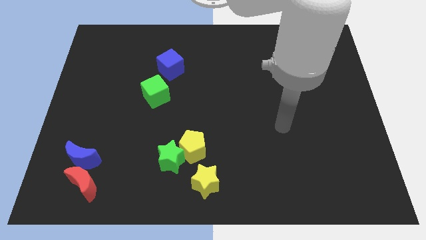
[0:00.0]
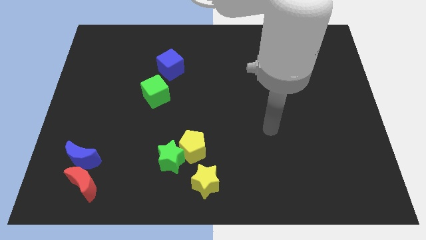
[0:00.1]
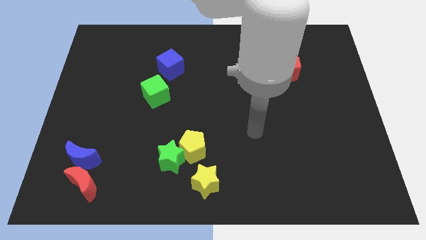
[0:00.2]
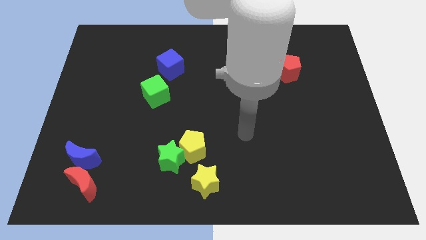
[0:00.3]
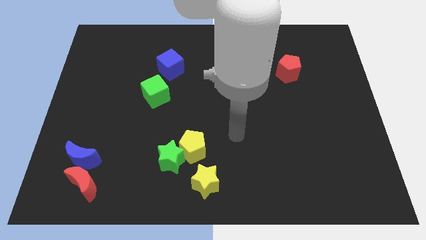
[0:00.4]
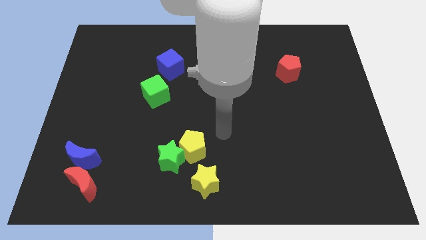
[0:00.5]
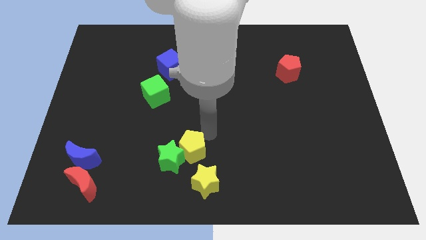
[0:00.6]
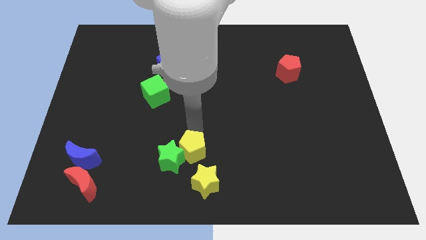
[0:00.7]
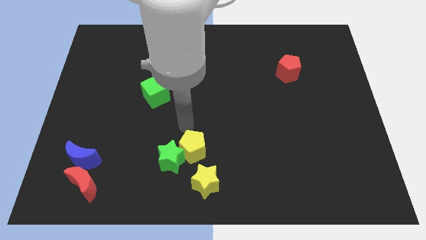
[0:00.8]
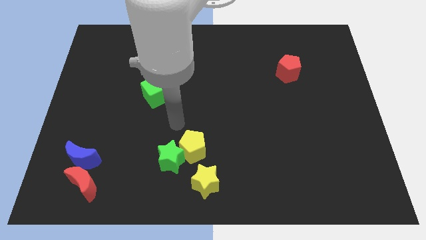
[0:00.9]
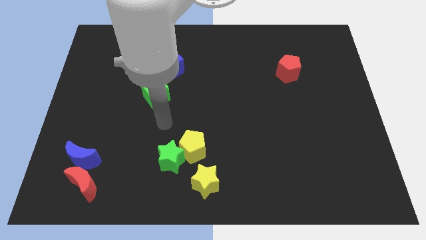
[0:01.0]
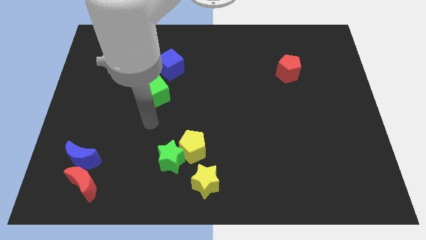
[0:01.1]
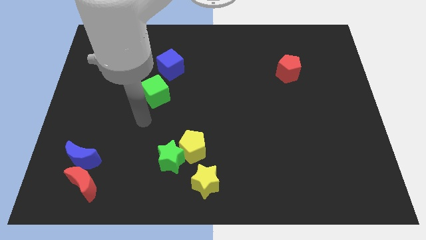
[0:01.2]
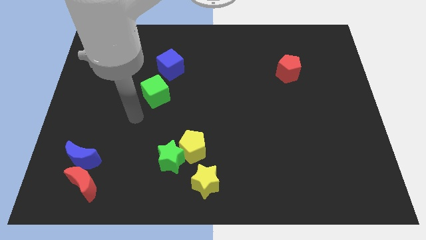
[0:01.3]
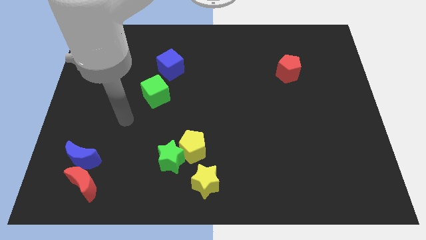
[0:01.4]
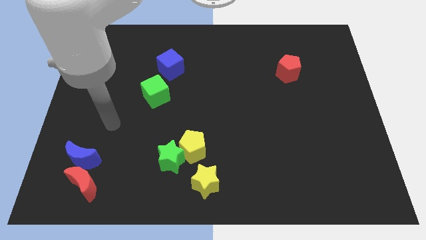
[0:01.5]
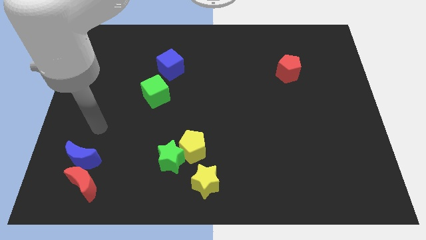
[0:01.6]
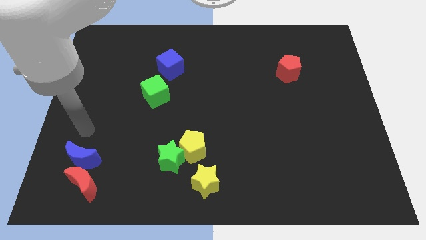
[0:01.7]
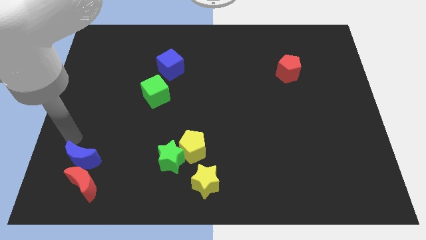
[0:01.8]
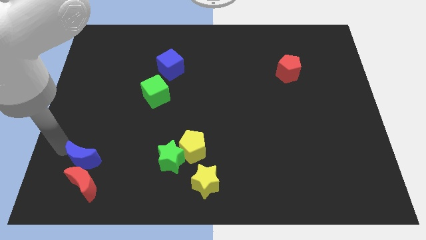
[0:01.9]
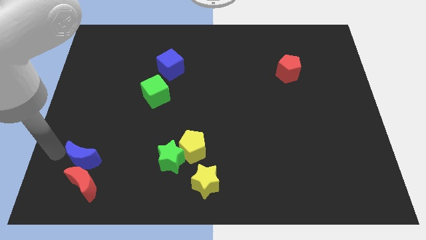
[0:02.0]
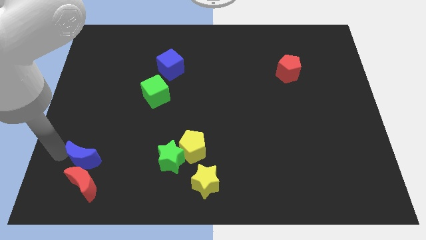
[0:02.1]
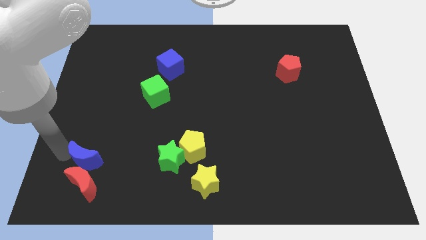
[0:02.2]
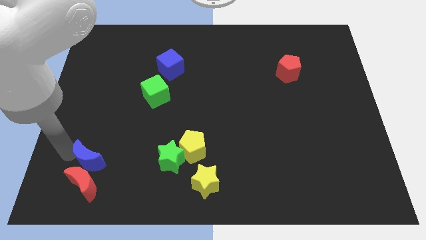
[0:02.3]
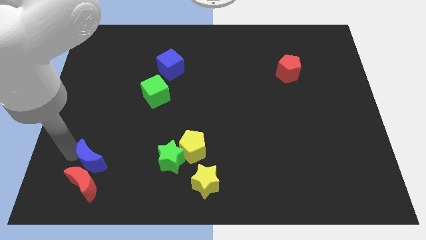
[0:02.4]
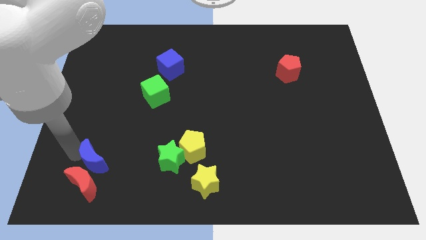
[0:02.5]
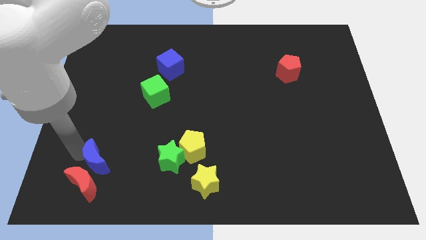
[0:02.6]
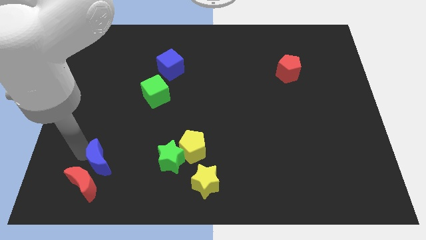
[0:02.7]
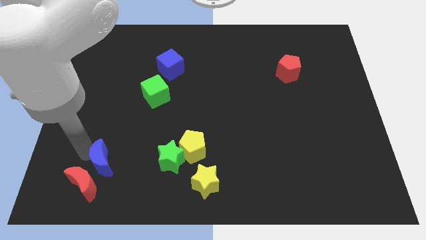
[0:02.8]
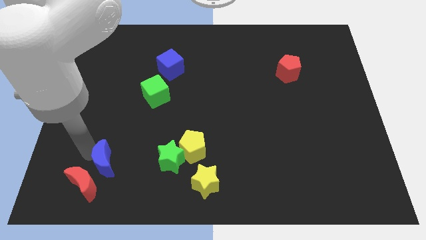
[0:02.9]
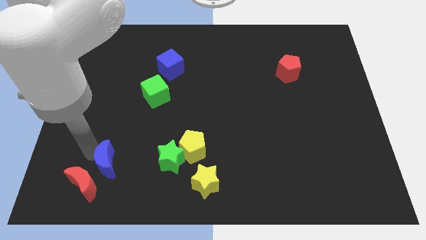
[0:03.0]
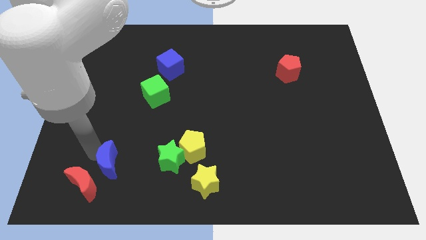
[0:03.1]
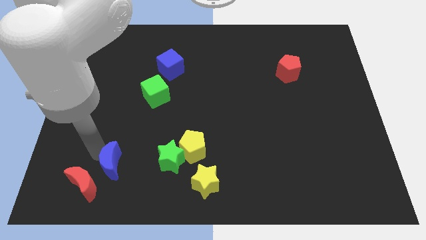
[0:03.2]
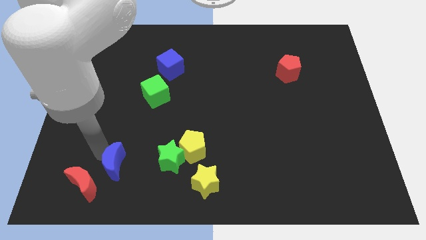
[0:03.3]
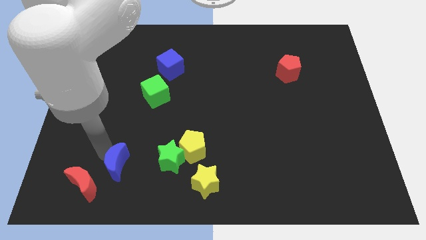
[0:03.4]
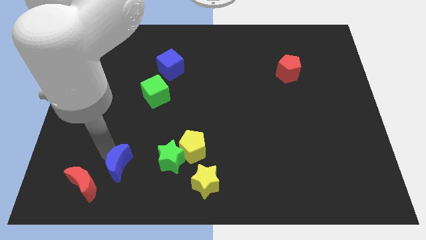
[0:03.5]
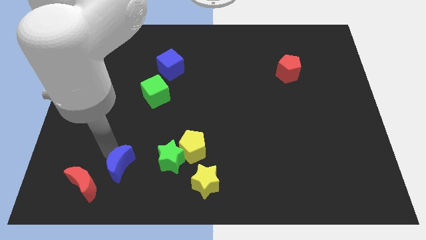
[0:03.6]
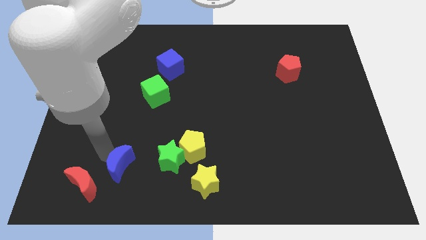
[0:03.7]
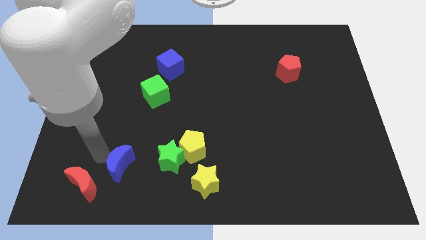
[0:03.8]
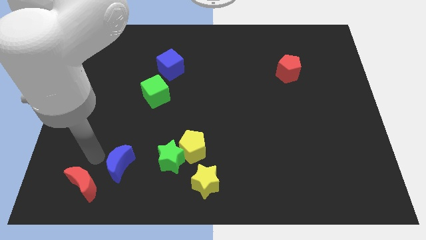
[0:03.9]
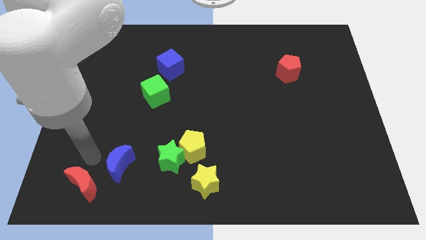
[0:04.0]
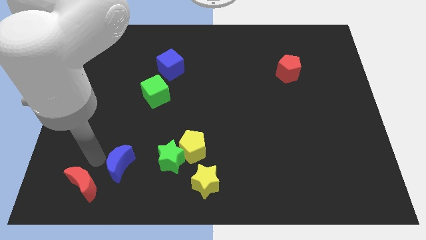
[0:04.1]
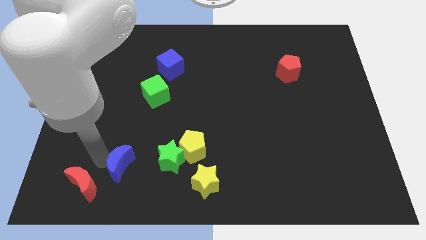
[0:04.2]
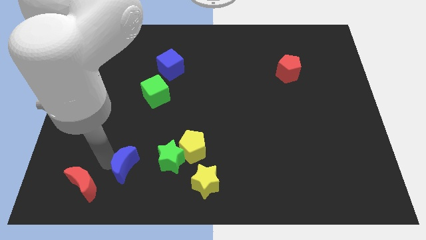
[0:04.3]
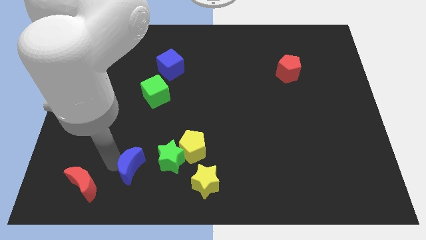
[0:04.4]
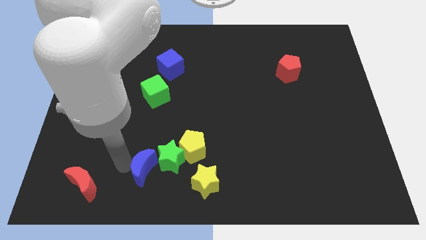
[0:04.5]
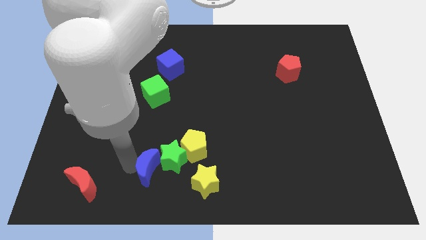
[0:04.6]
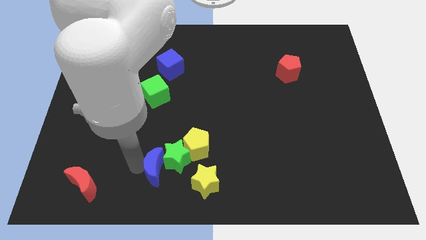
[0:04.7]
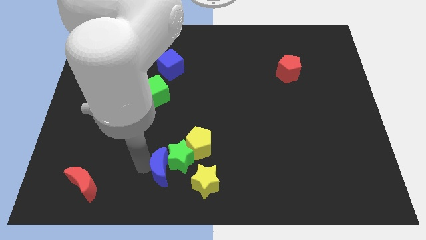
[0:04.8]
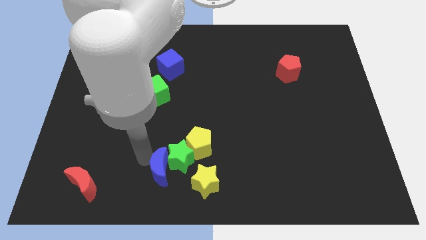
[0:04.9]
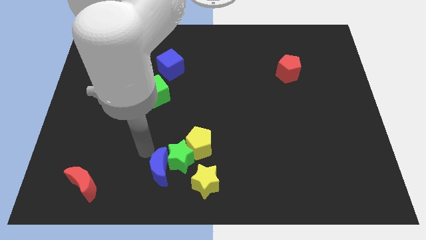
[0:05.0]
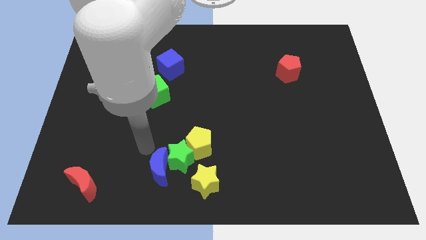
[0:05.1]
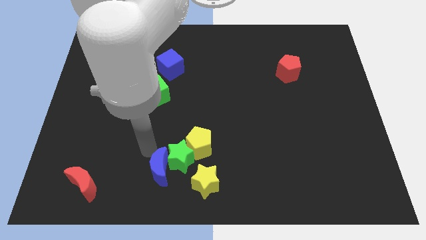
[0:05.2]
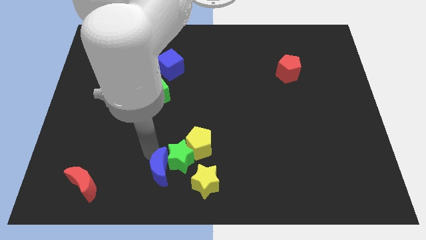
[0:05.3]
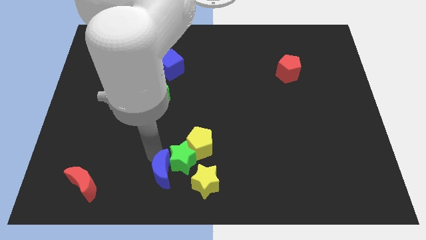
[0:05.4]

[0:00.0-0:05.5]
push the blue moon to the bottom

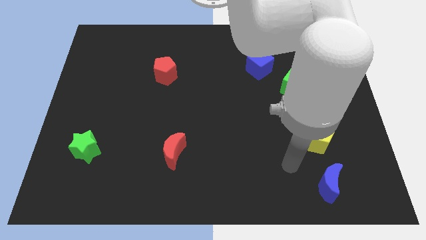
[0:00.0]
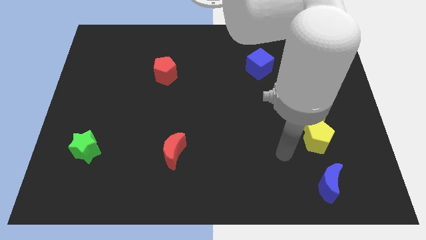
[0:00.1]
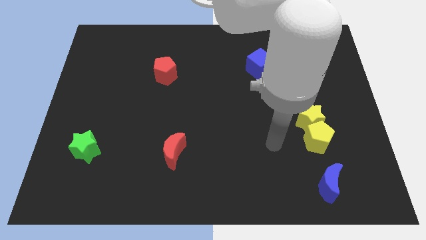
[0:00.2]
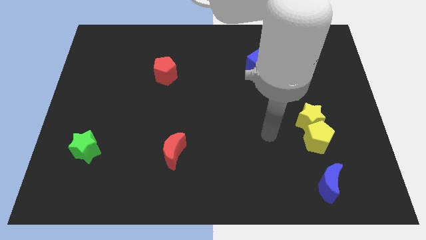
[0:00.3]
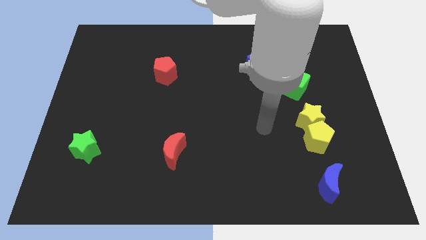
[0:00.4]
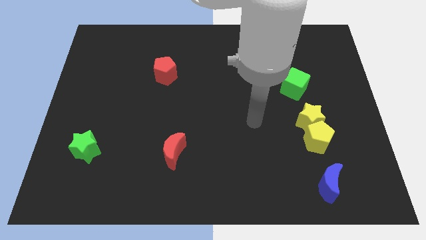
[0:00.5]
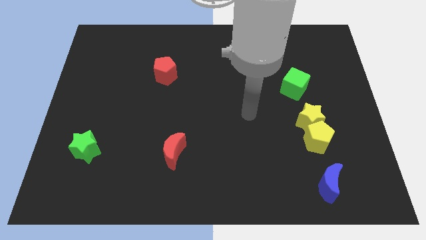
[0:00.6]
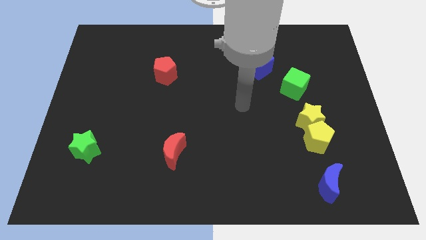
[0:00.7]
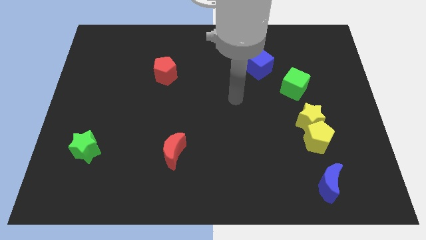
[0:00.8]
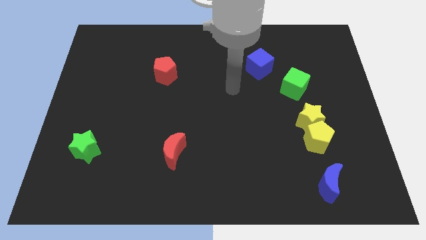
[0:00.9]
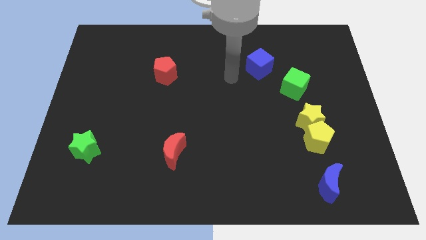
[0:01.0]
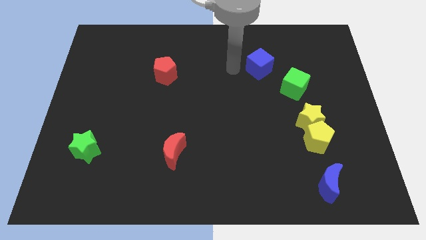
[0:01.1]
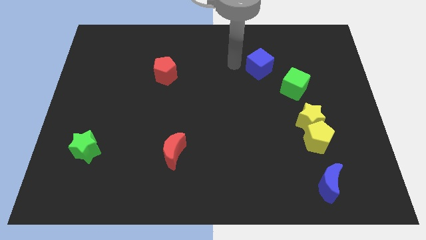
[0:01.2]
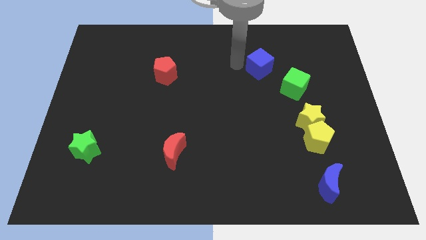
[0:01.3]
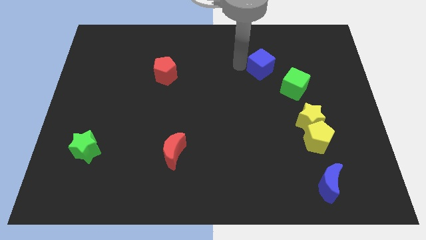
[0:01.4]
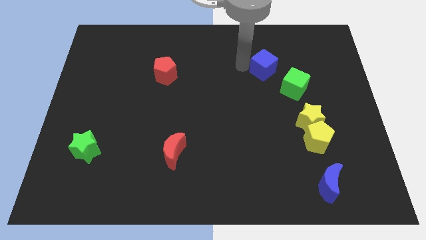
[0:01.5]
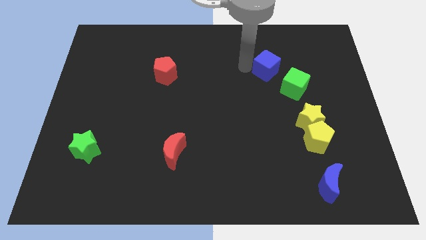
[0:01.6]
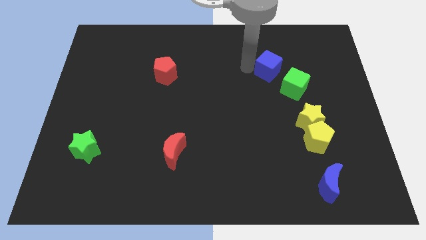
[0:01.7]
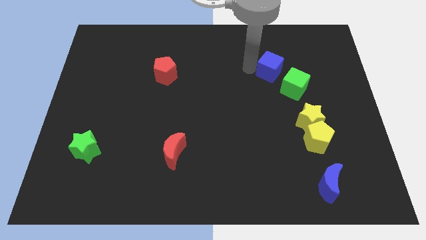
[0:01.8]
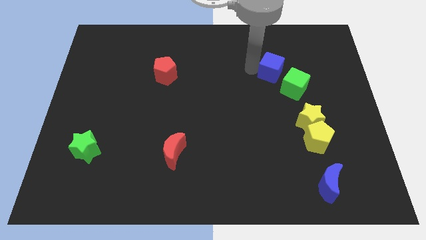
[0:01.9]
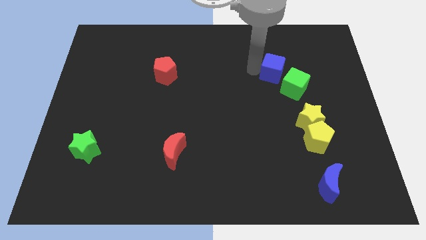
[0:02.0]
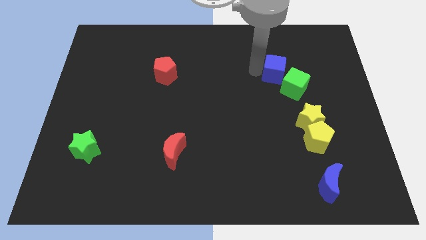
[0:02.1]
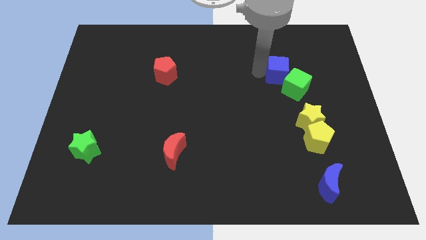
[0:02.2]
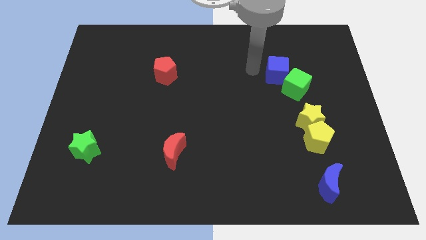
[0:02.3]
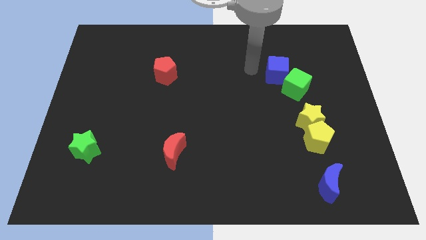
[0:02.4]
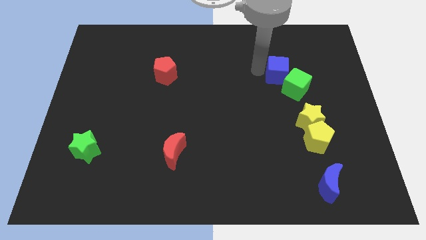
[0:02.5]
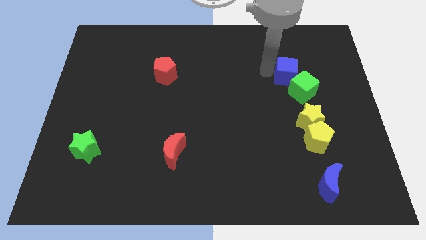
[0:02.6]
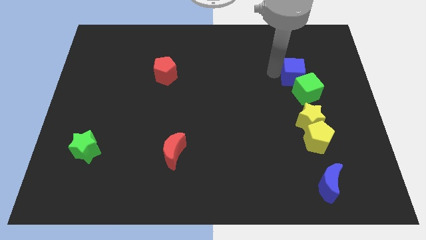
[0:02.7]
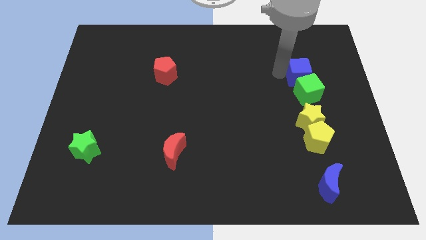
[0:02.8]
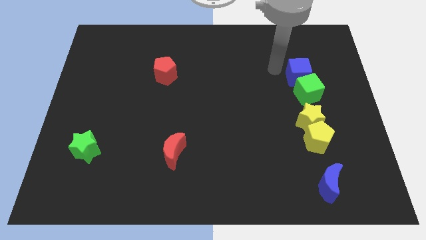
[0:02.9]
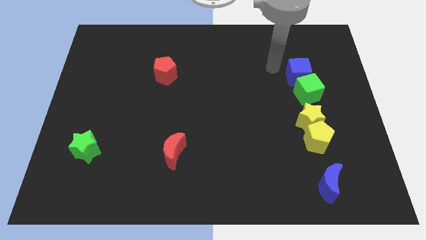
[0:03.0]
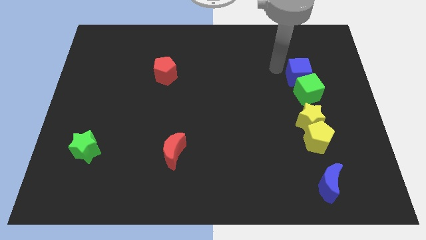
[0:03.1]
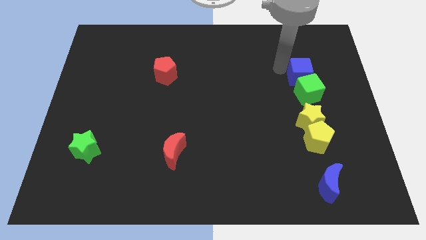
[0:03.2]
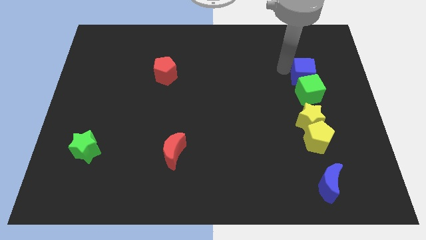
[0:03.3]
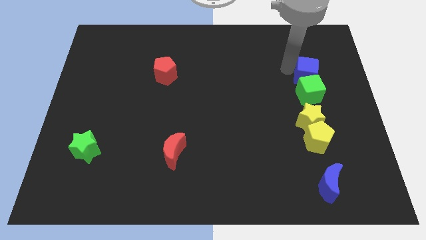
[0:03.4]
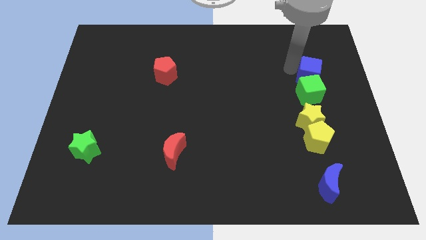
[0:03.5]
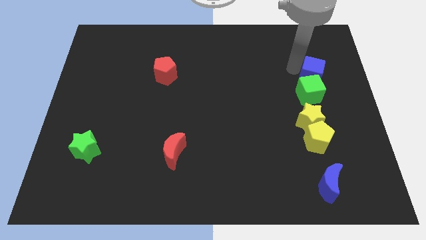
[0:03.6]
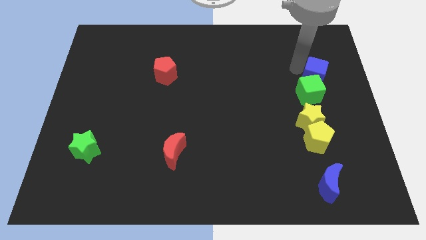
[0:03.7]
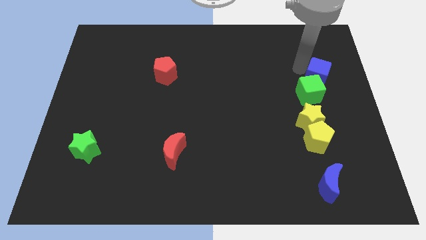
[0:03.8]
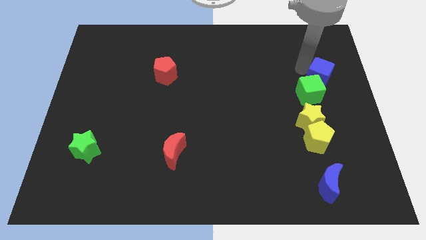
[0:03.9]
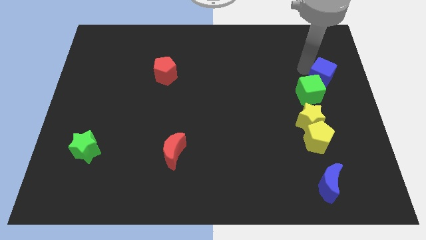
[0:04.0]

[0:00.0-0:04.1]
push the blue cube to the right side
